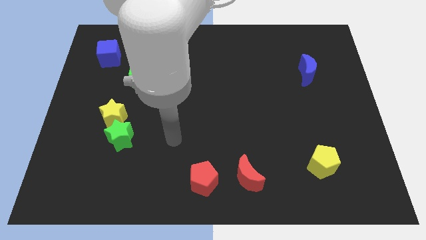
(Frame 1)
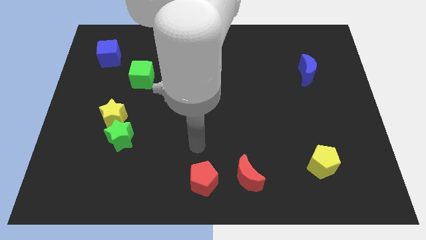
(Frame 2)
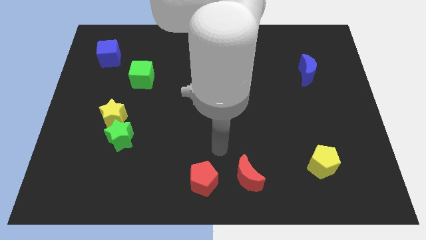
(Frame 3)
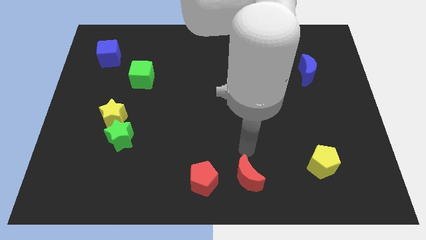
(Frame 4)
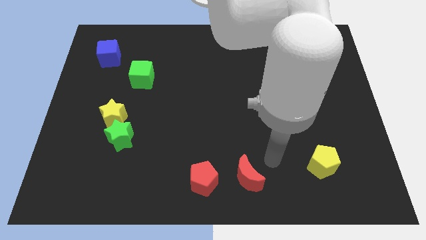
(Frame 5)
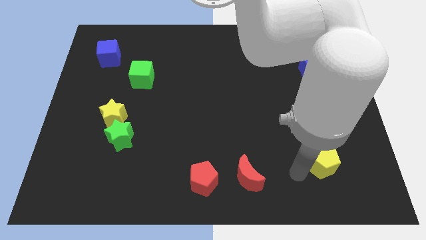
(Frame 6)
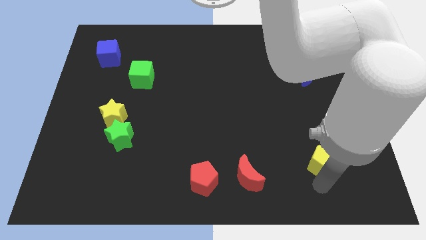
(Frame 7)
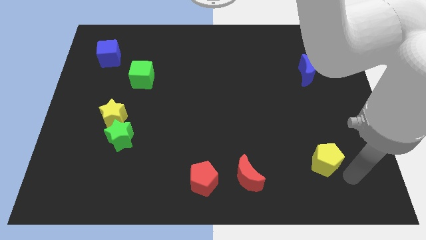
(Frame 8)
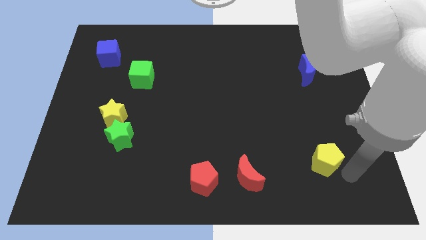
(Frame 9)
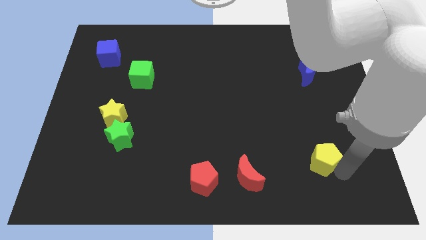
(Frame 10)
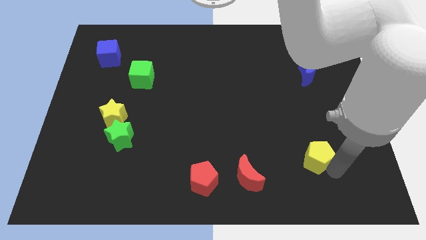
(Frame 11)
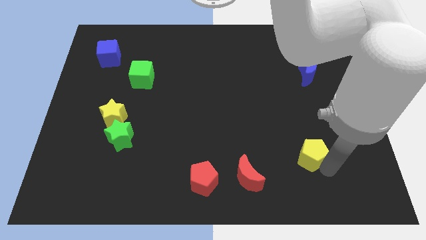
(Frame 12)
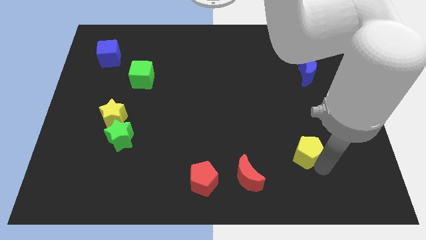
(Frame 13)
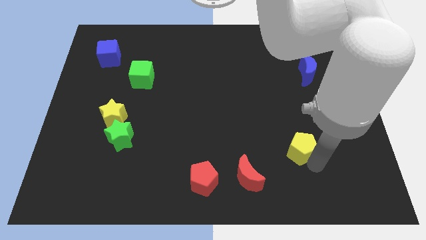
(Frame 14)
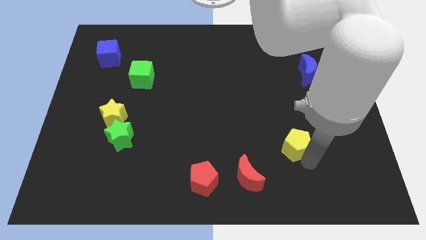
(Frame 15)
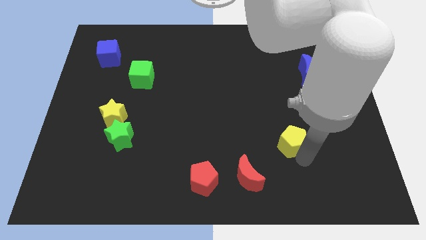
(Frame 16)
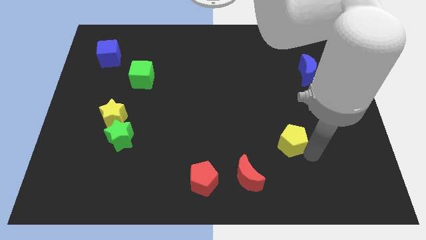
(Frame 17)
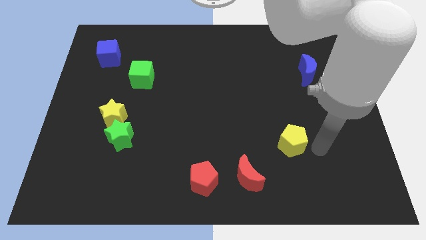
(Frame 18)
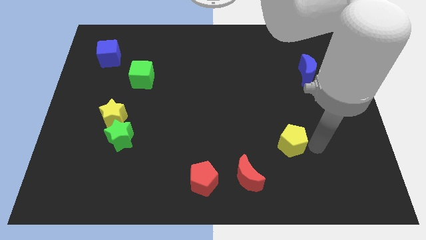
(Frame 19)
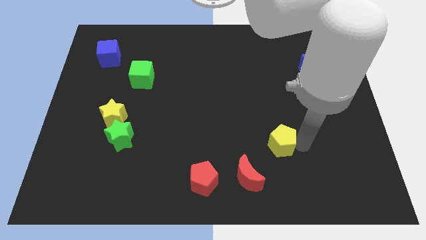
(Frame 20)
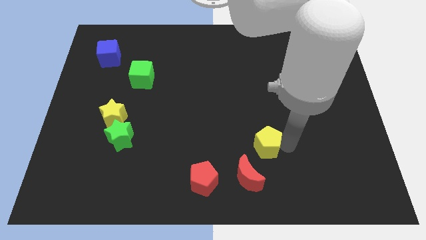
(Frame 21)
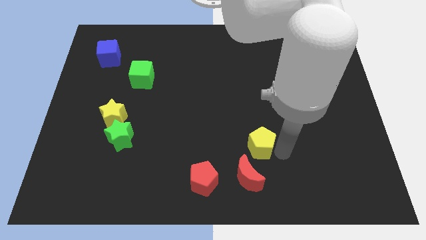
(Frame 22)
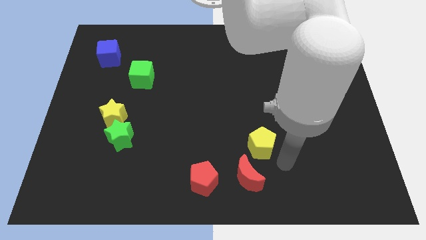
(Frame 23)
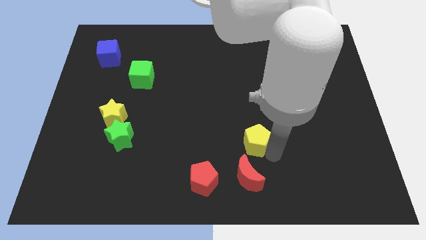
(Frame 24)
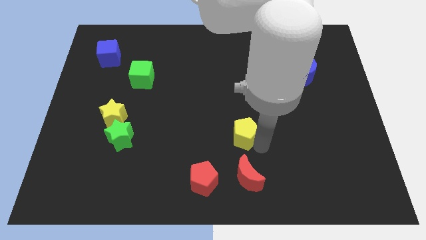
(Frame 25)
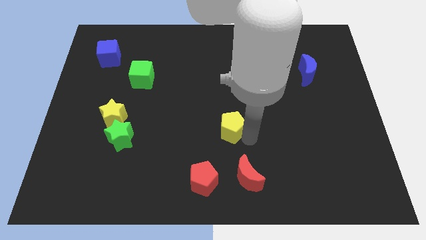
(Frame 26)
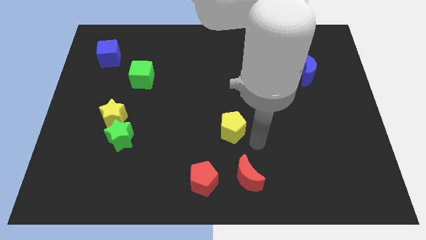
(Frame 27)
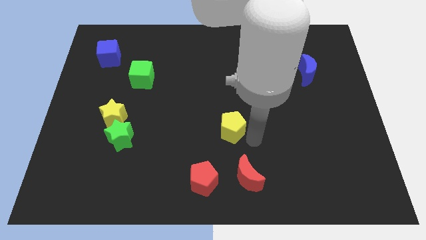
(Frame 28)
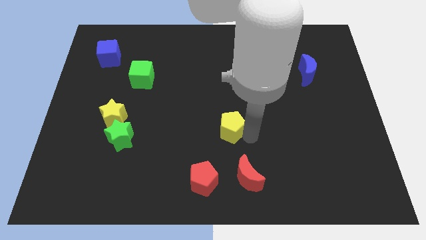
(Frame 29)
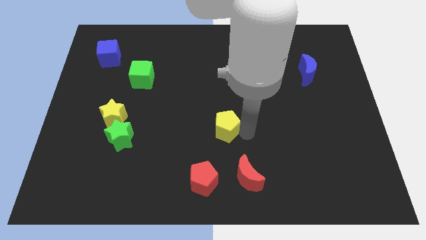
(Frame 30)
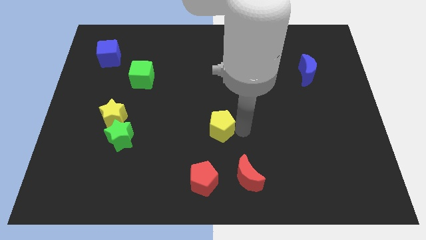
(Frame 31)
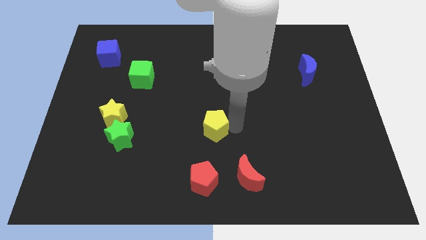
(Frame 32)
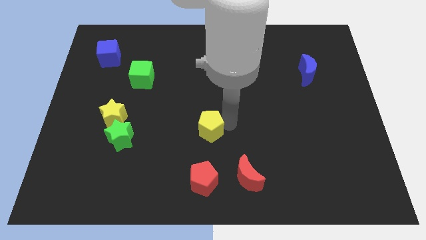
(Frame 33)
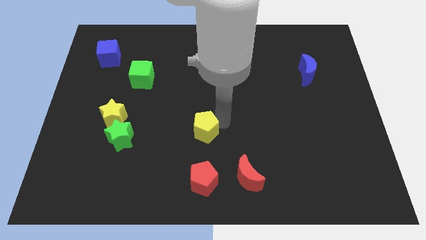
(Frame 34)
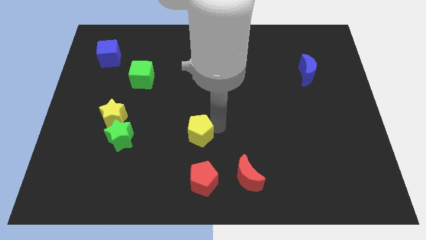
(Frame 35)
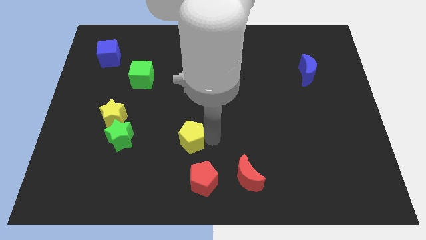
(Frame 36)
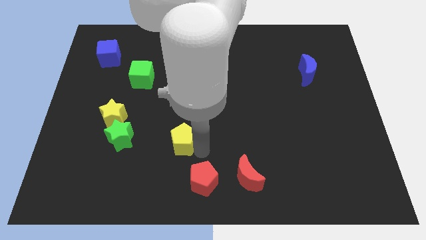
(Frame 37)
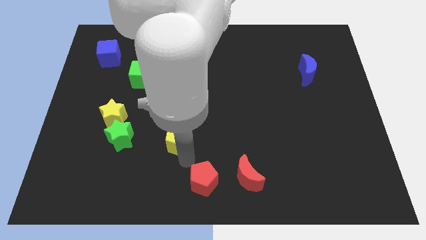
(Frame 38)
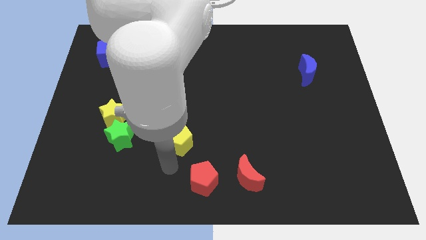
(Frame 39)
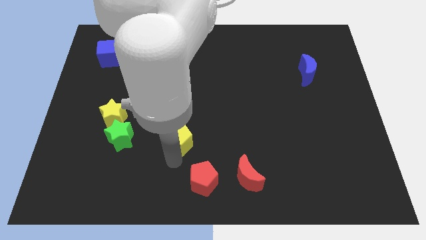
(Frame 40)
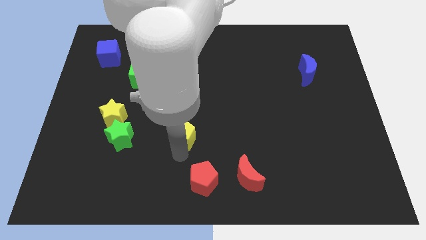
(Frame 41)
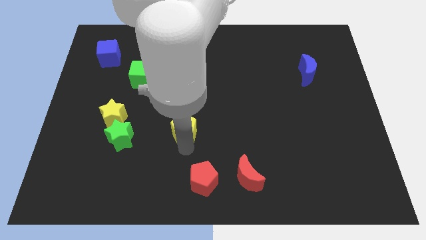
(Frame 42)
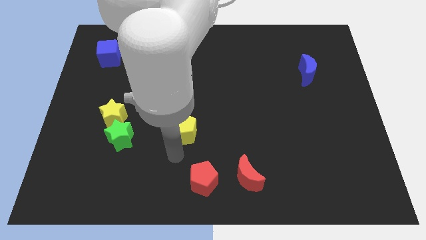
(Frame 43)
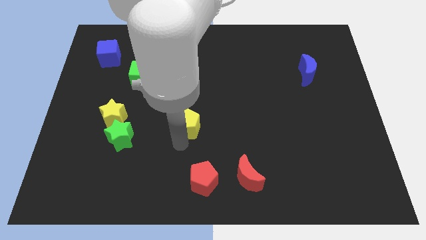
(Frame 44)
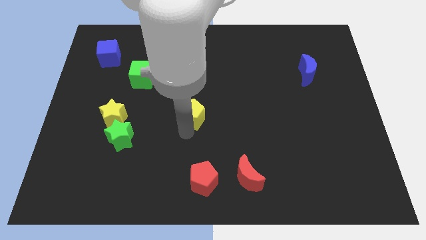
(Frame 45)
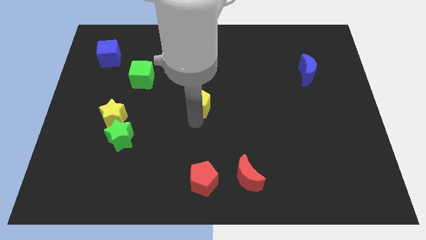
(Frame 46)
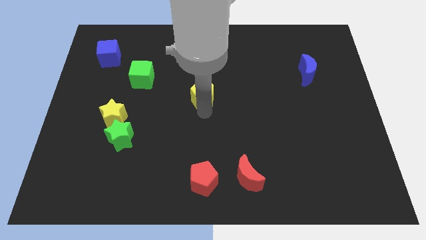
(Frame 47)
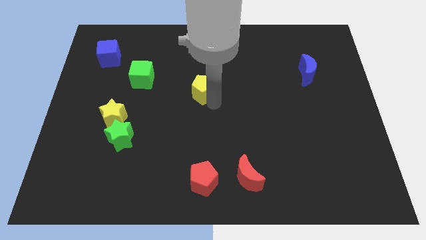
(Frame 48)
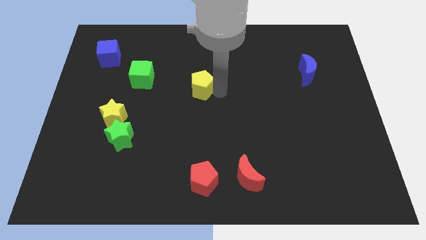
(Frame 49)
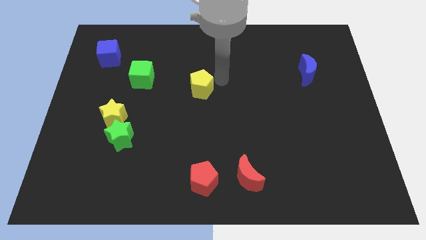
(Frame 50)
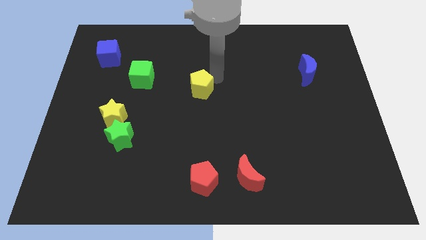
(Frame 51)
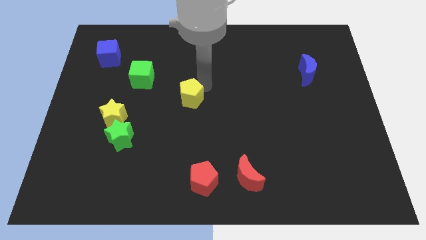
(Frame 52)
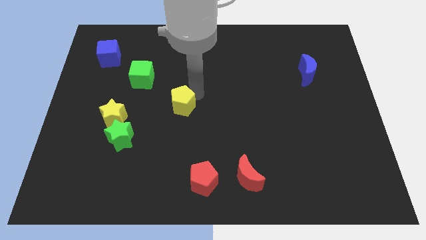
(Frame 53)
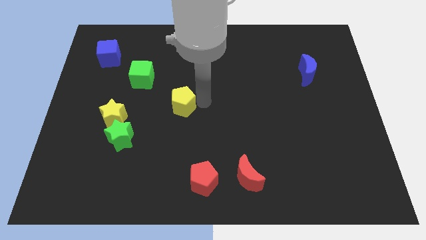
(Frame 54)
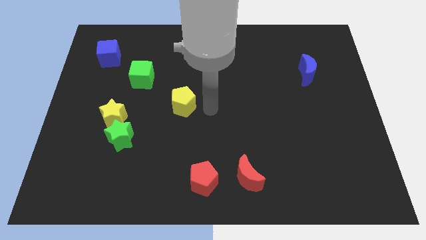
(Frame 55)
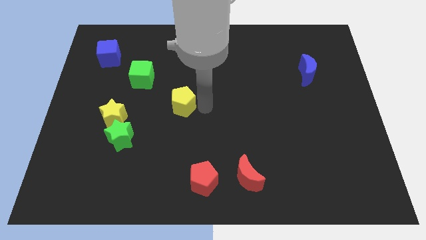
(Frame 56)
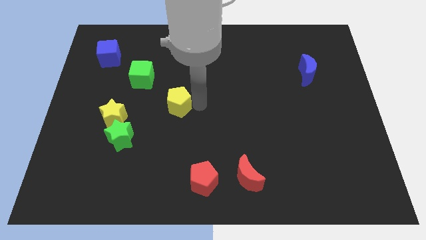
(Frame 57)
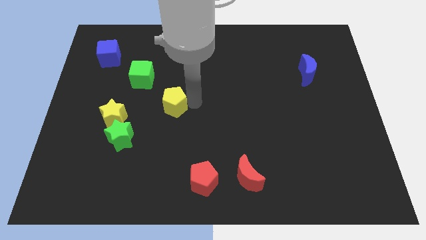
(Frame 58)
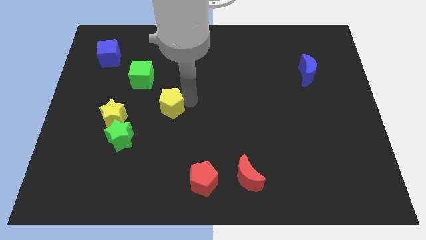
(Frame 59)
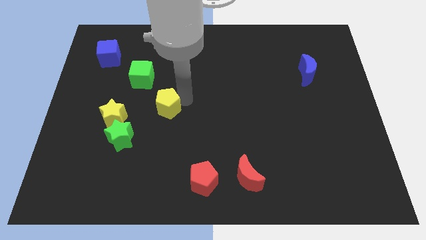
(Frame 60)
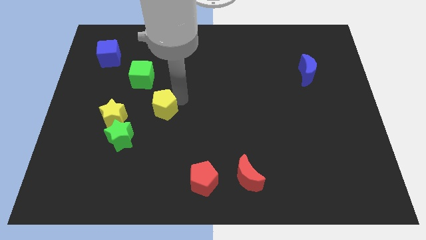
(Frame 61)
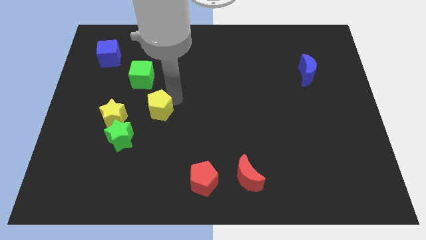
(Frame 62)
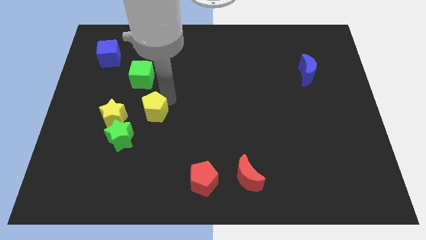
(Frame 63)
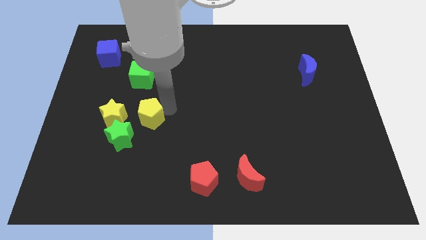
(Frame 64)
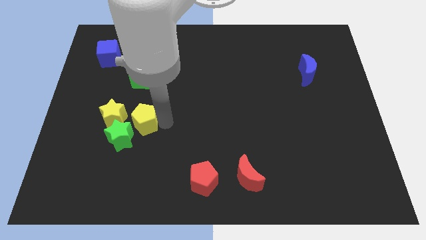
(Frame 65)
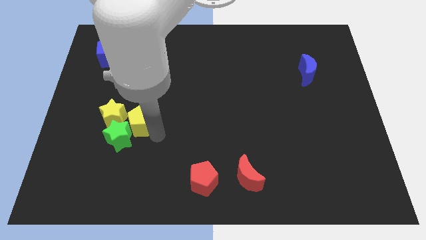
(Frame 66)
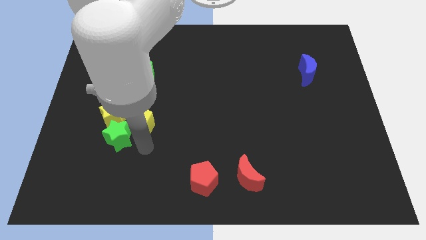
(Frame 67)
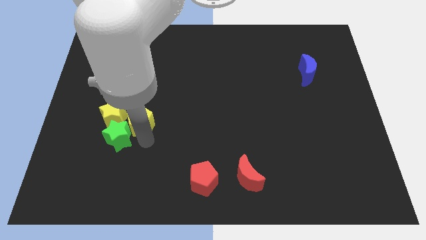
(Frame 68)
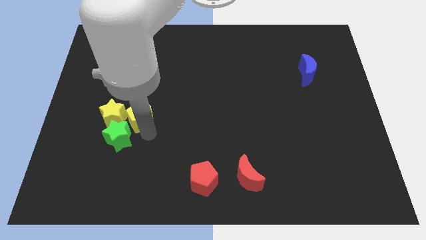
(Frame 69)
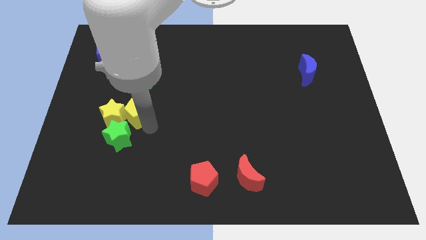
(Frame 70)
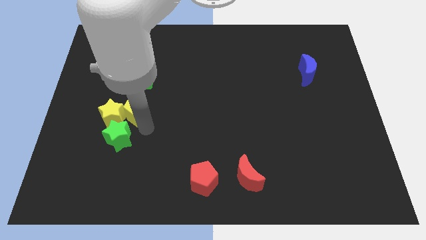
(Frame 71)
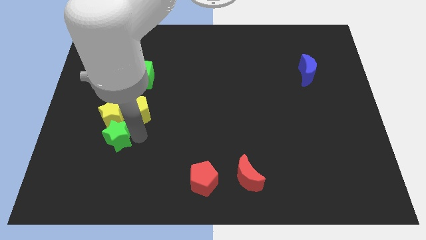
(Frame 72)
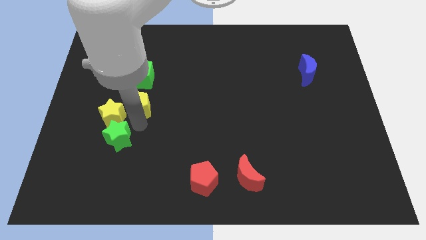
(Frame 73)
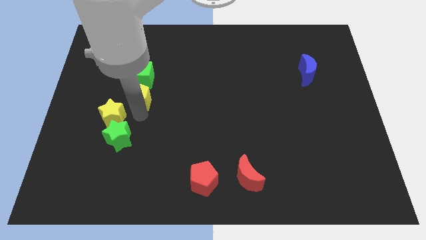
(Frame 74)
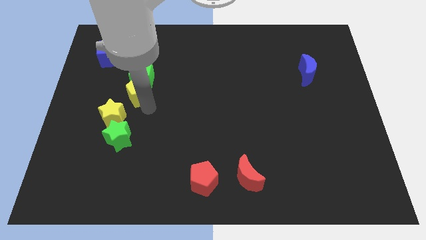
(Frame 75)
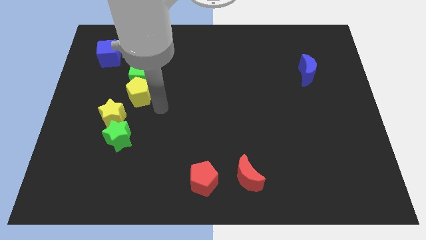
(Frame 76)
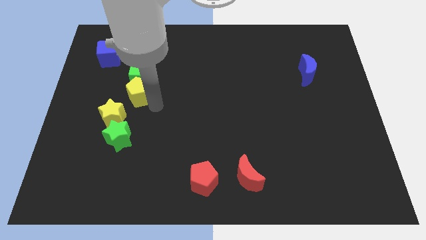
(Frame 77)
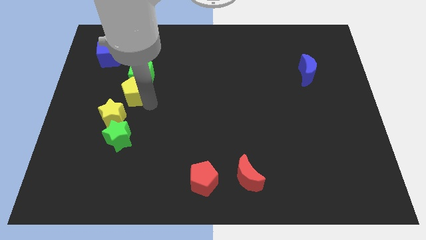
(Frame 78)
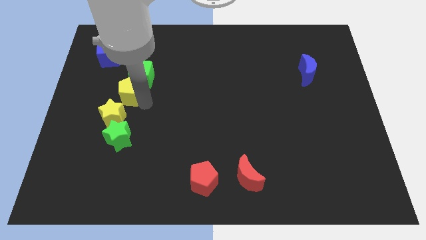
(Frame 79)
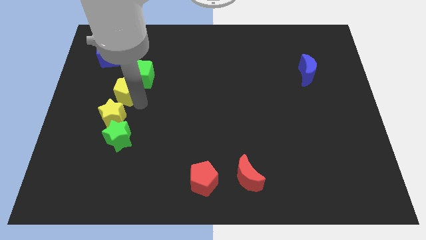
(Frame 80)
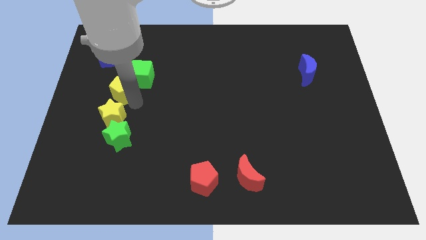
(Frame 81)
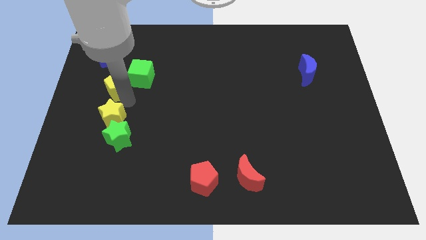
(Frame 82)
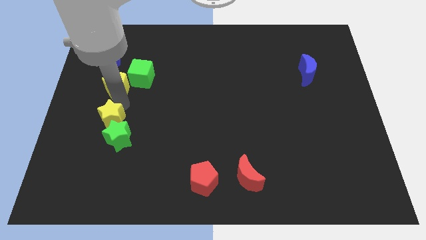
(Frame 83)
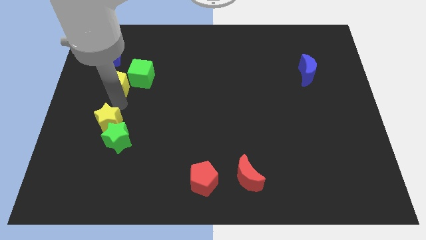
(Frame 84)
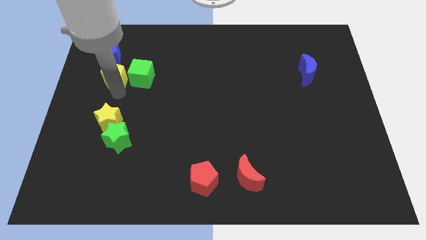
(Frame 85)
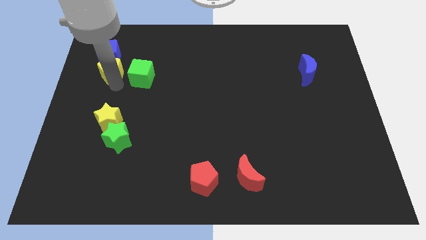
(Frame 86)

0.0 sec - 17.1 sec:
push the yellow pentagon towards the blue cube
